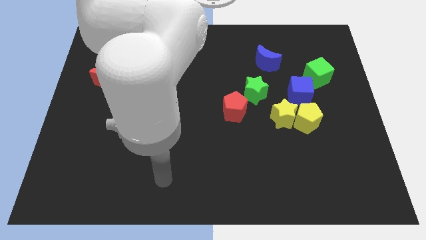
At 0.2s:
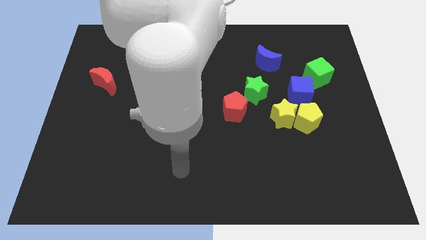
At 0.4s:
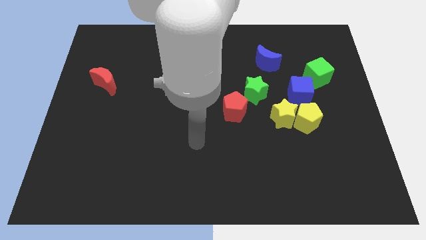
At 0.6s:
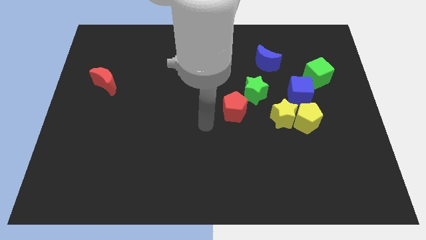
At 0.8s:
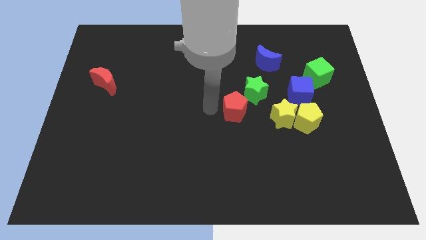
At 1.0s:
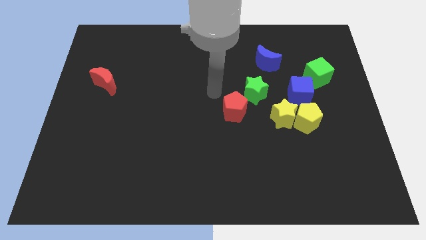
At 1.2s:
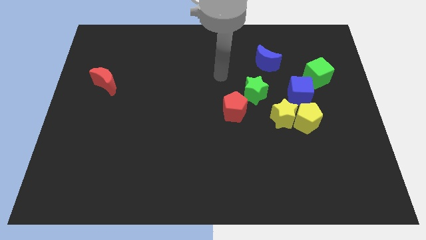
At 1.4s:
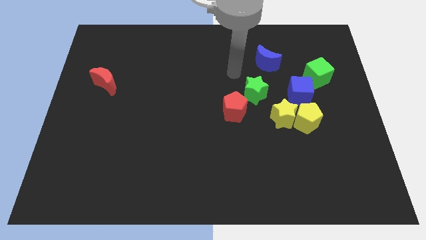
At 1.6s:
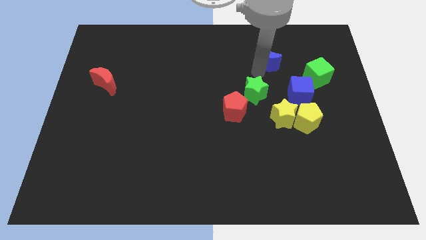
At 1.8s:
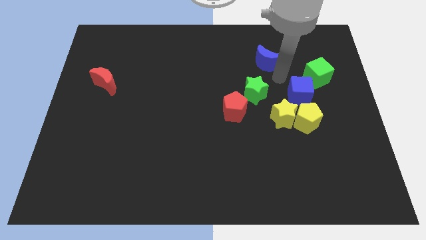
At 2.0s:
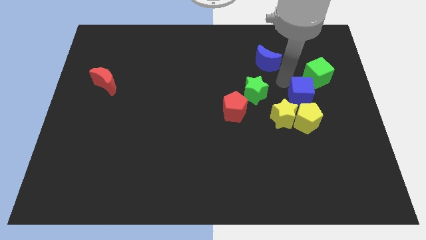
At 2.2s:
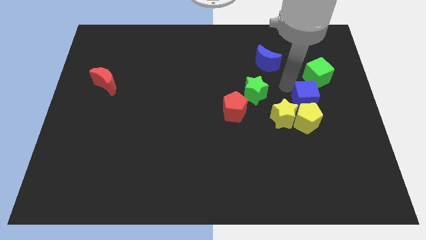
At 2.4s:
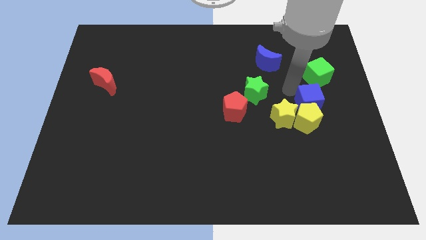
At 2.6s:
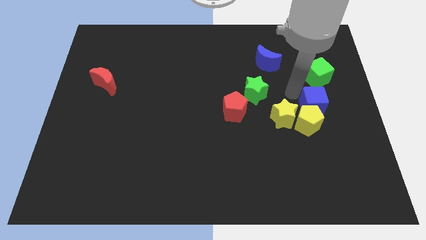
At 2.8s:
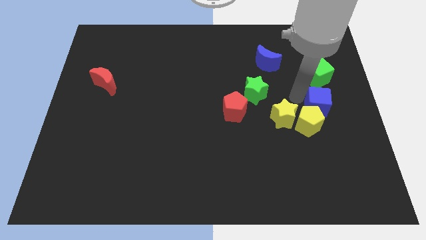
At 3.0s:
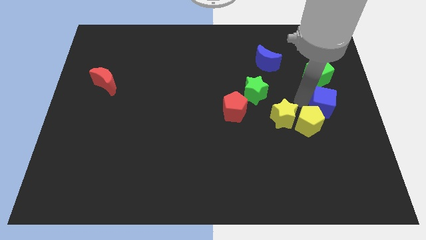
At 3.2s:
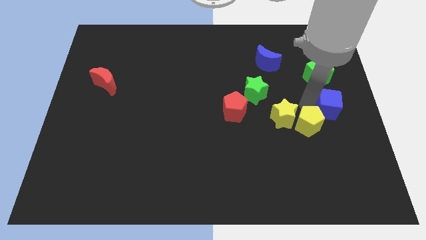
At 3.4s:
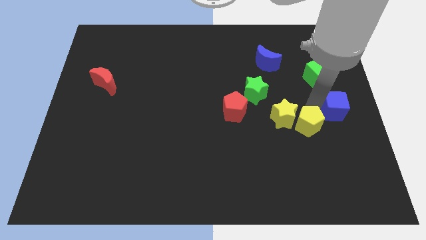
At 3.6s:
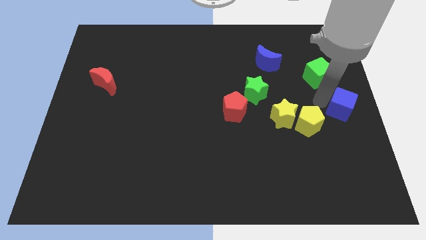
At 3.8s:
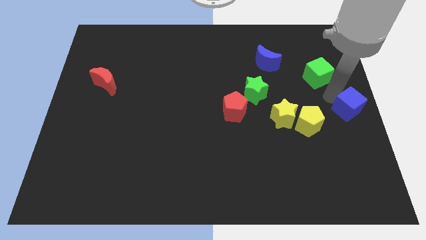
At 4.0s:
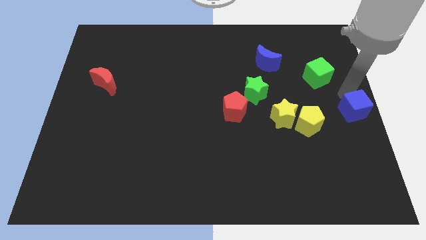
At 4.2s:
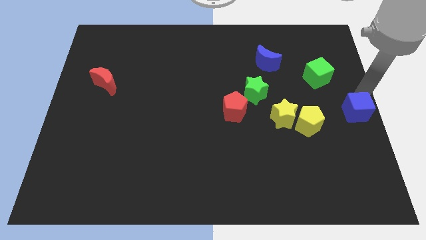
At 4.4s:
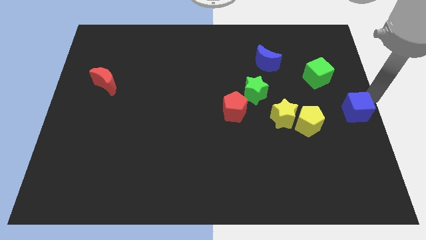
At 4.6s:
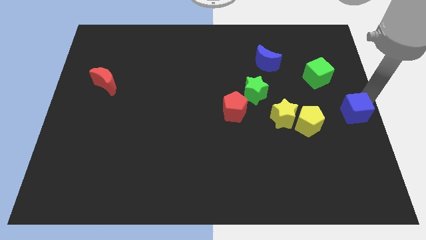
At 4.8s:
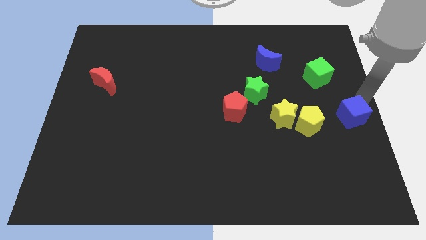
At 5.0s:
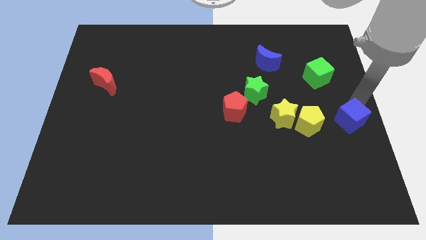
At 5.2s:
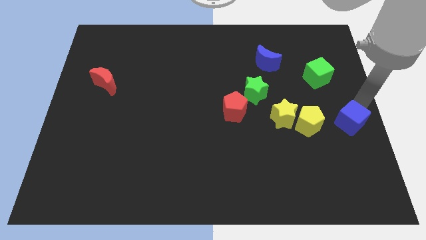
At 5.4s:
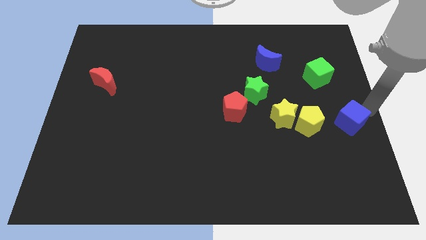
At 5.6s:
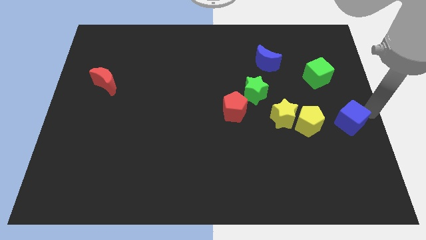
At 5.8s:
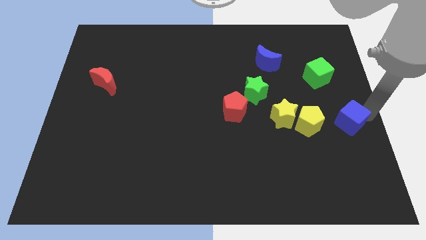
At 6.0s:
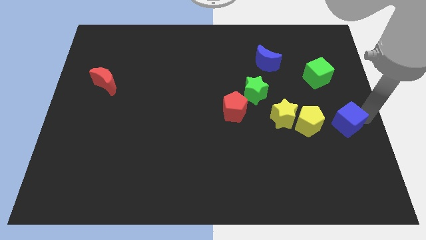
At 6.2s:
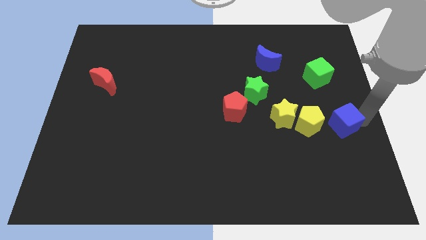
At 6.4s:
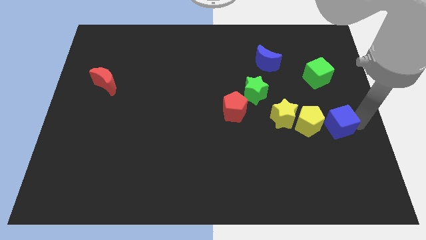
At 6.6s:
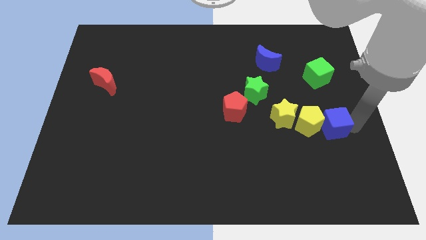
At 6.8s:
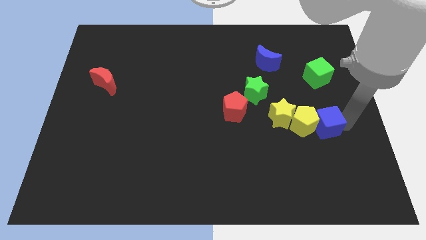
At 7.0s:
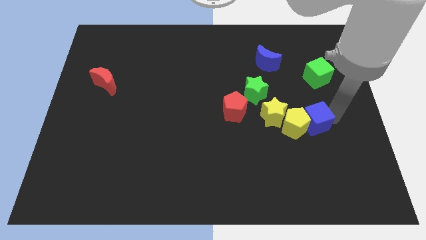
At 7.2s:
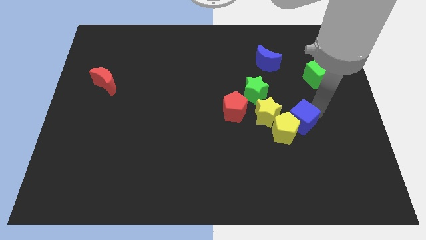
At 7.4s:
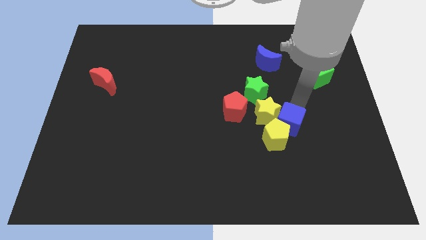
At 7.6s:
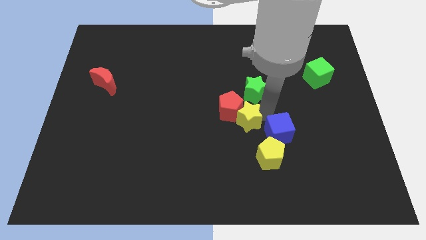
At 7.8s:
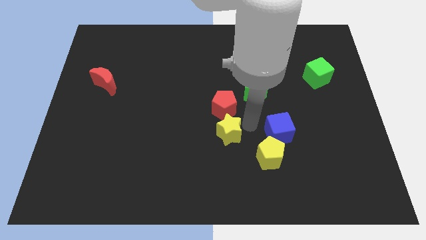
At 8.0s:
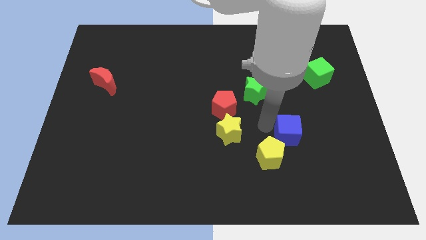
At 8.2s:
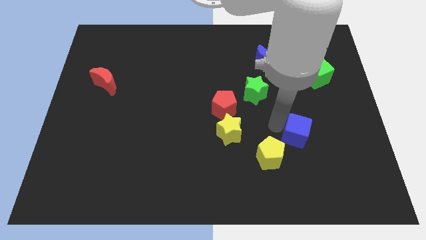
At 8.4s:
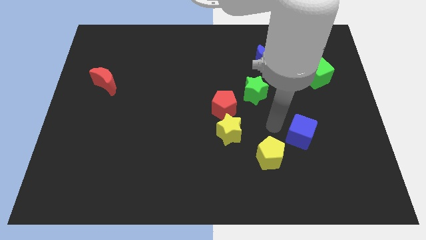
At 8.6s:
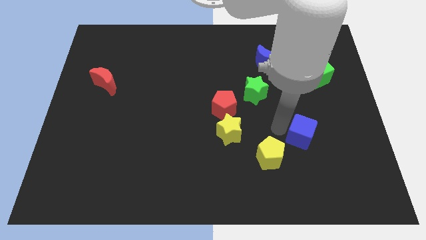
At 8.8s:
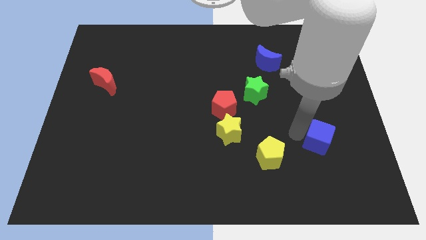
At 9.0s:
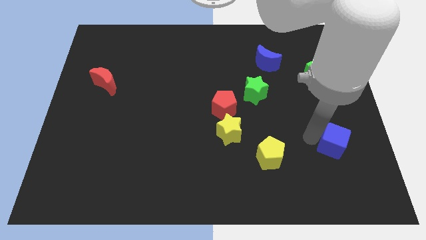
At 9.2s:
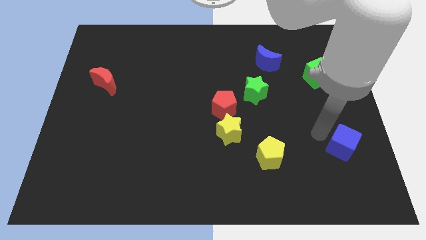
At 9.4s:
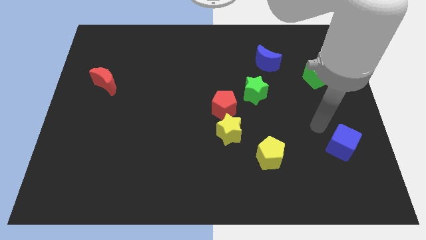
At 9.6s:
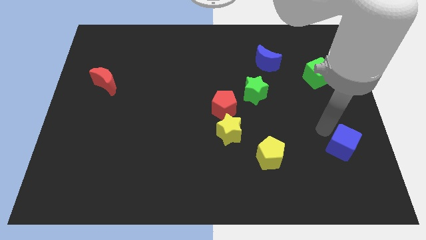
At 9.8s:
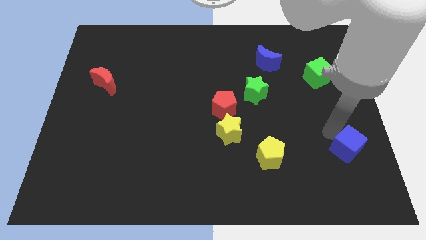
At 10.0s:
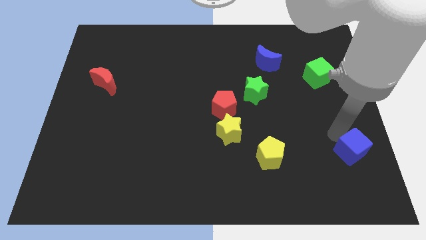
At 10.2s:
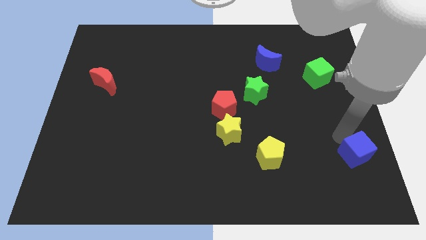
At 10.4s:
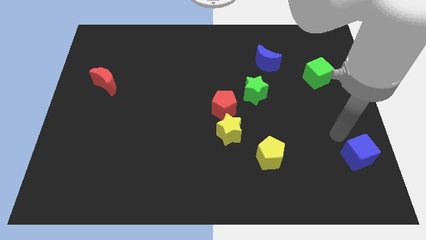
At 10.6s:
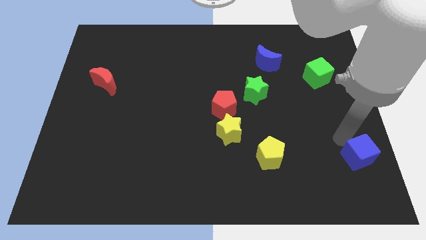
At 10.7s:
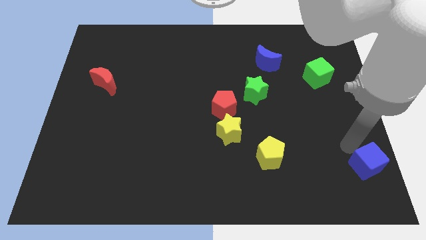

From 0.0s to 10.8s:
push the blue cube to the lower right corner

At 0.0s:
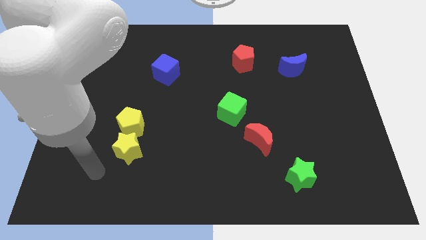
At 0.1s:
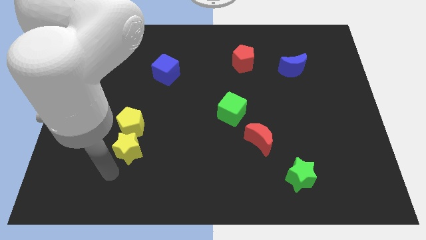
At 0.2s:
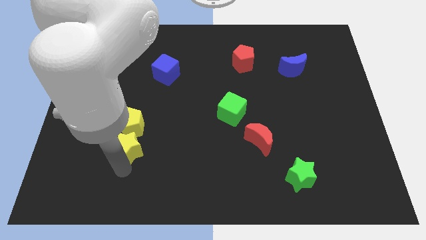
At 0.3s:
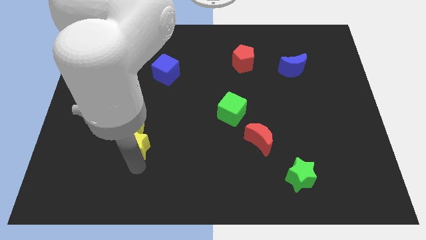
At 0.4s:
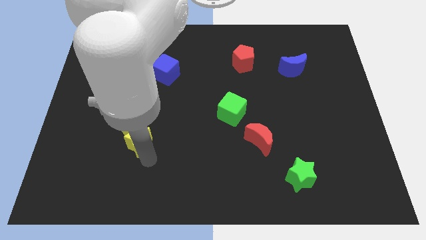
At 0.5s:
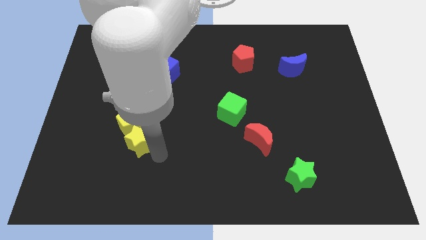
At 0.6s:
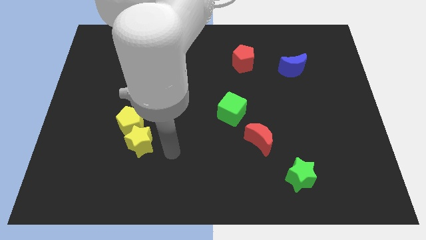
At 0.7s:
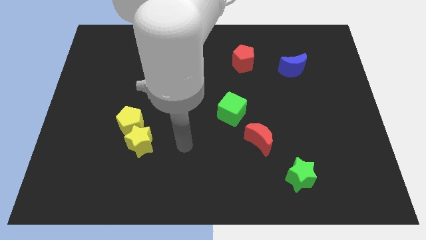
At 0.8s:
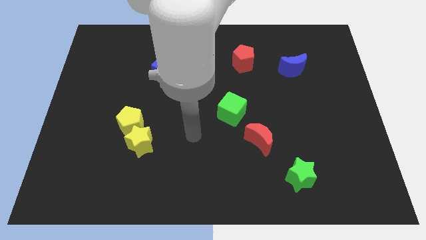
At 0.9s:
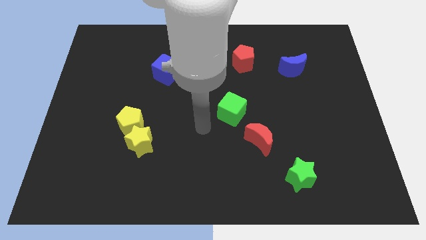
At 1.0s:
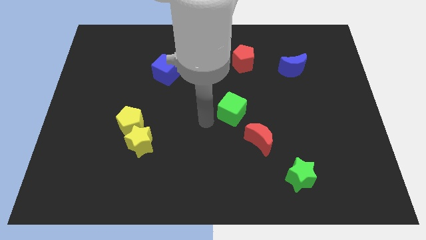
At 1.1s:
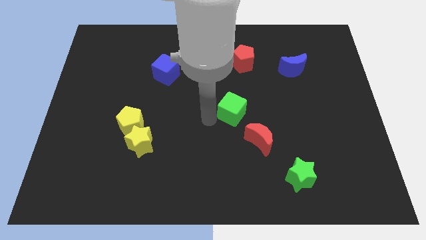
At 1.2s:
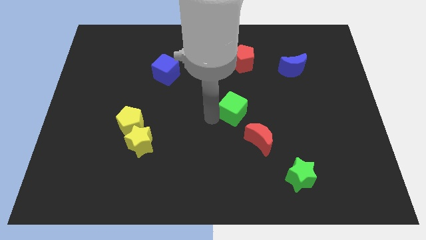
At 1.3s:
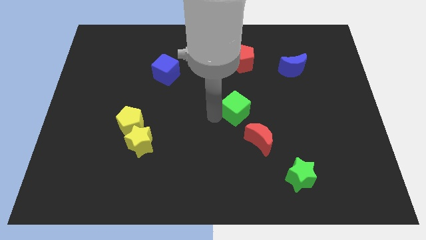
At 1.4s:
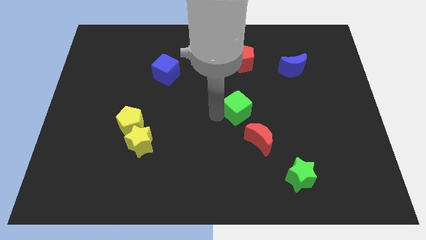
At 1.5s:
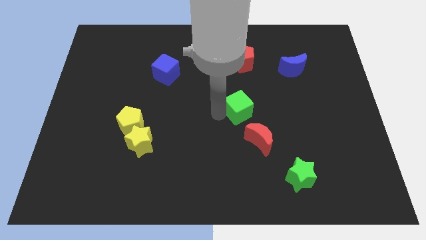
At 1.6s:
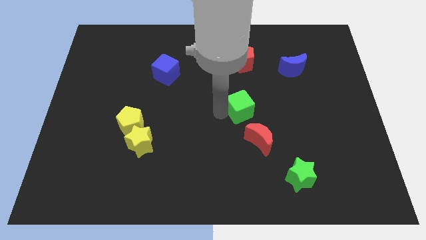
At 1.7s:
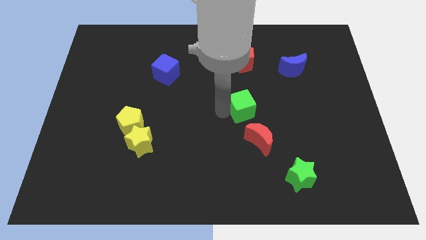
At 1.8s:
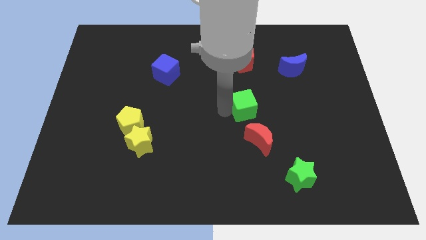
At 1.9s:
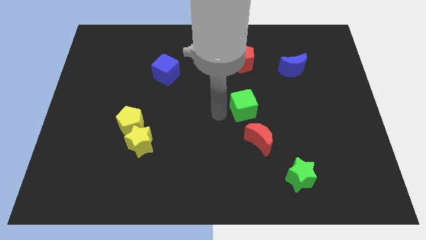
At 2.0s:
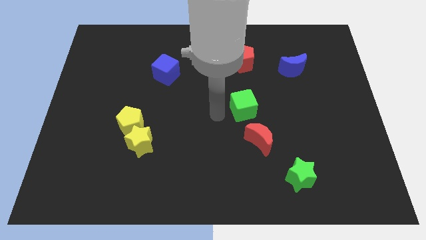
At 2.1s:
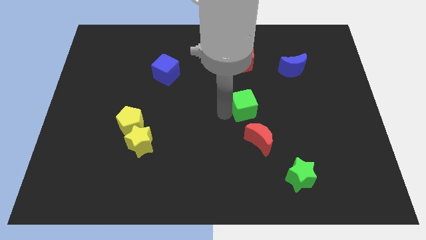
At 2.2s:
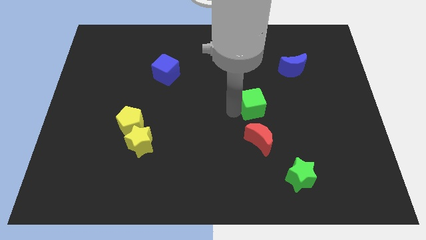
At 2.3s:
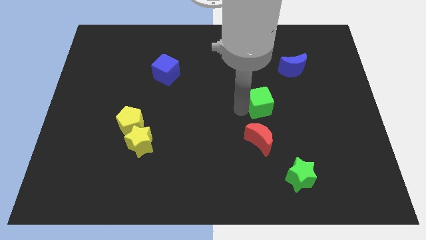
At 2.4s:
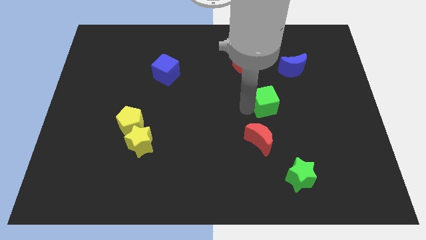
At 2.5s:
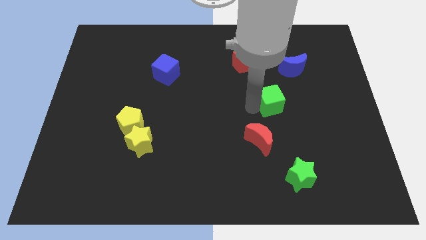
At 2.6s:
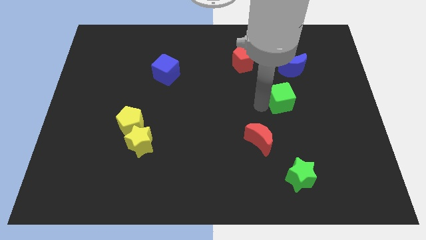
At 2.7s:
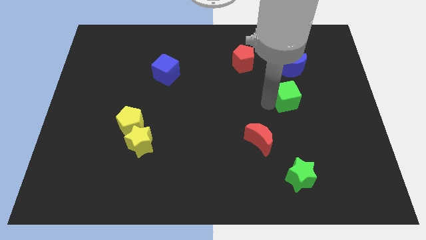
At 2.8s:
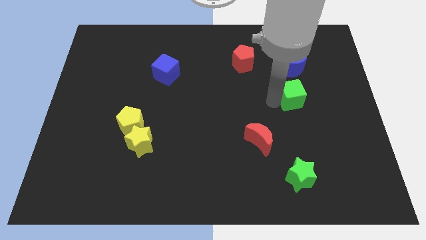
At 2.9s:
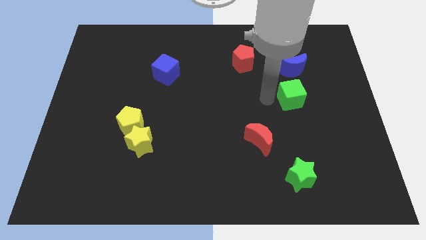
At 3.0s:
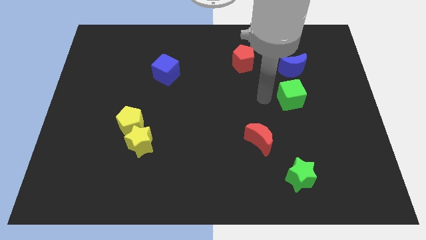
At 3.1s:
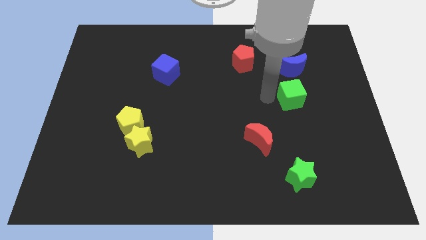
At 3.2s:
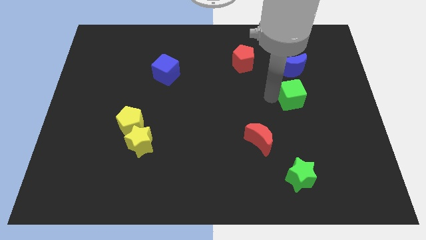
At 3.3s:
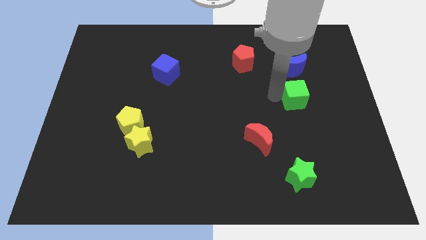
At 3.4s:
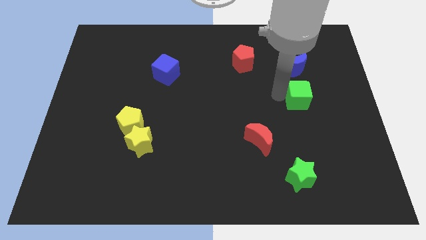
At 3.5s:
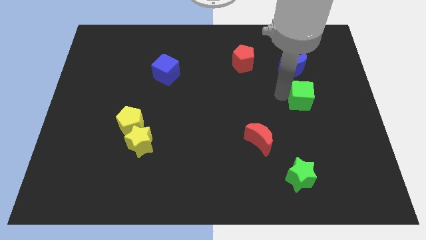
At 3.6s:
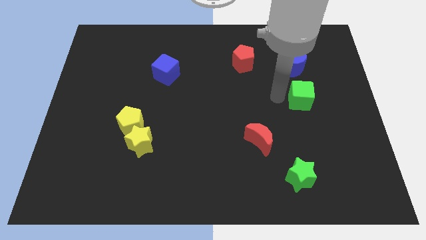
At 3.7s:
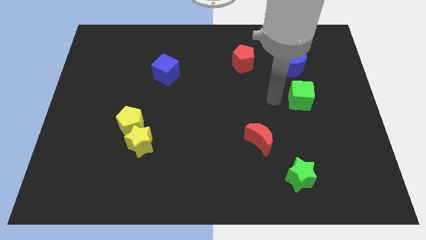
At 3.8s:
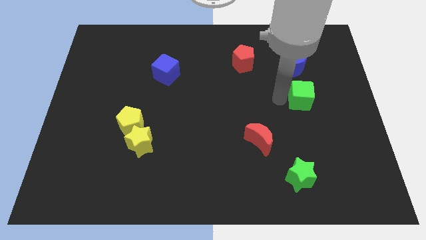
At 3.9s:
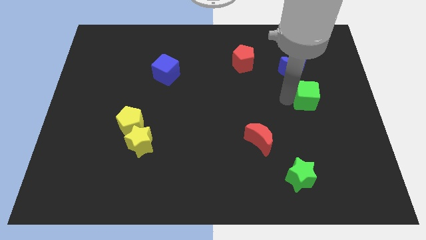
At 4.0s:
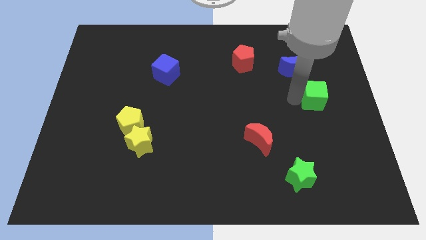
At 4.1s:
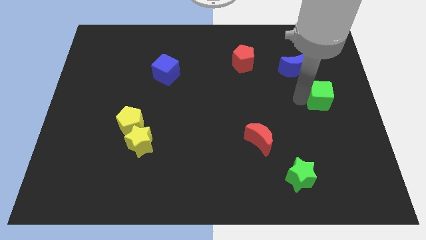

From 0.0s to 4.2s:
push the green cube to the right side
